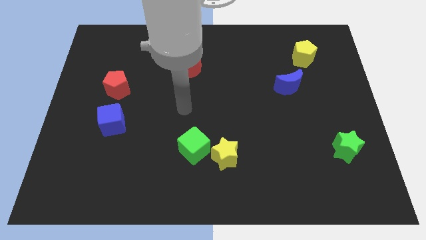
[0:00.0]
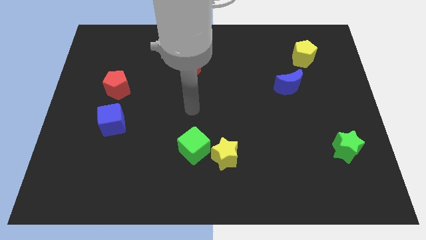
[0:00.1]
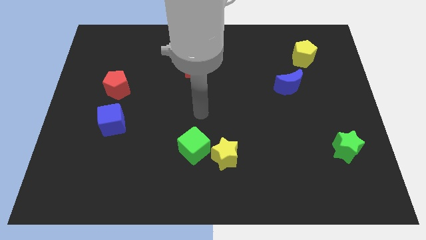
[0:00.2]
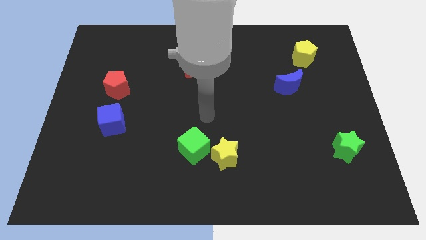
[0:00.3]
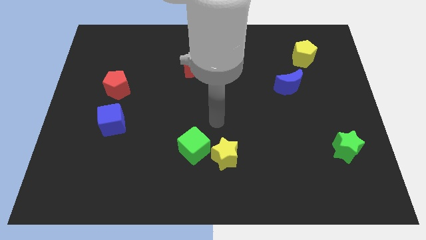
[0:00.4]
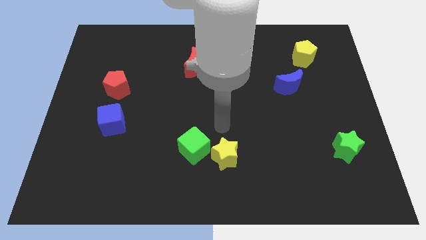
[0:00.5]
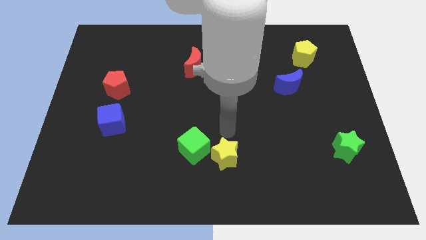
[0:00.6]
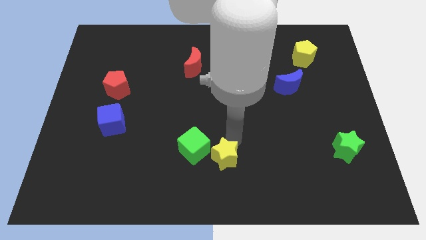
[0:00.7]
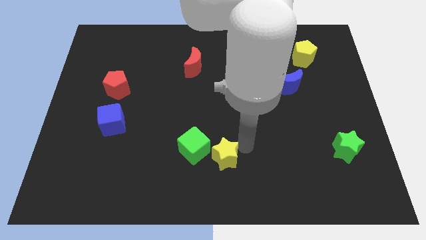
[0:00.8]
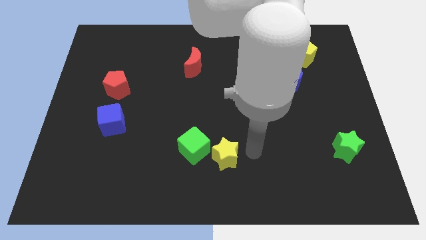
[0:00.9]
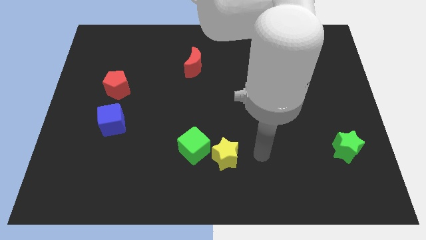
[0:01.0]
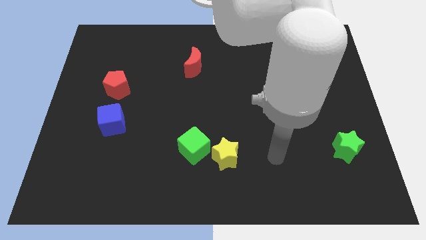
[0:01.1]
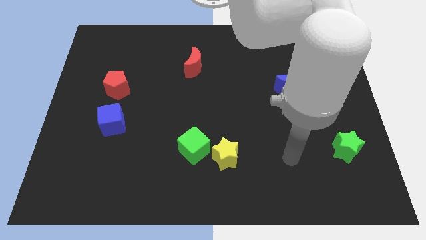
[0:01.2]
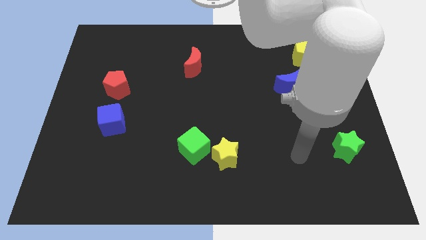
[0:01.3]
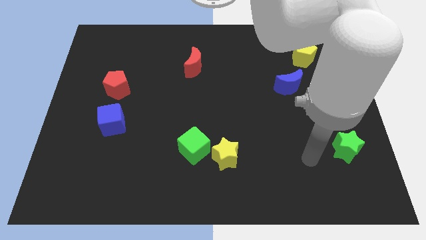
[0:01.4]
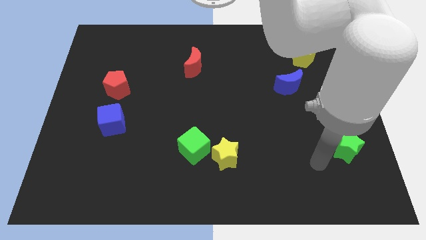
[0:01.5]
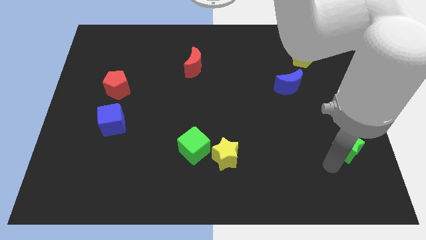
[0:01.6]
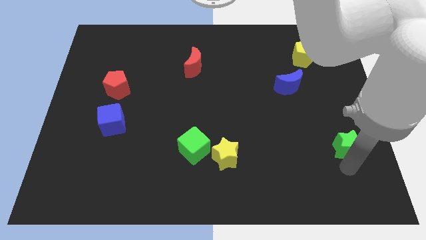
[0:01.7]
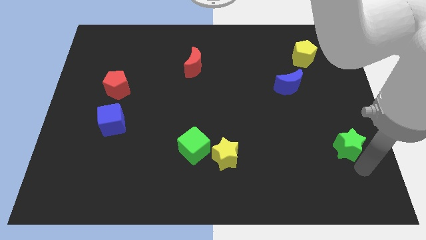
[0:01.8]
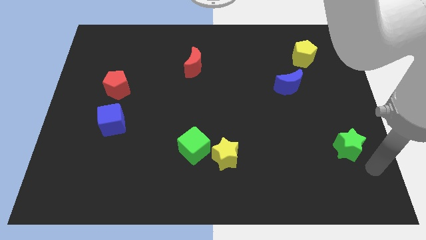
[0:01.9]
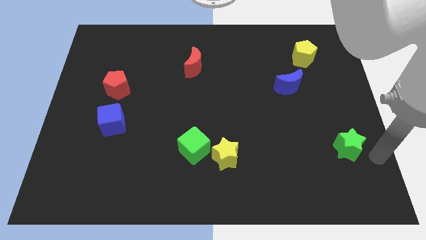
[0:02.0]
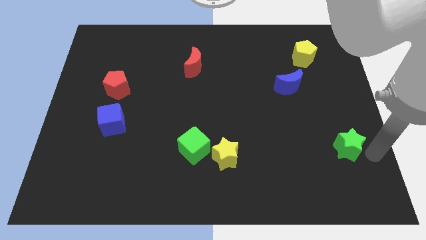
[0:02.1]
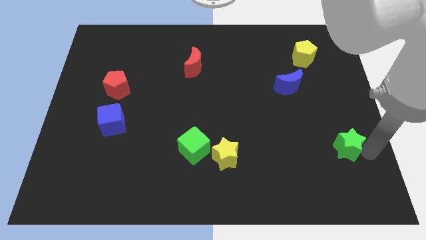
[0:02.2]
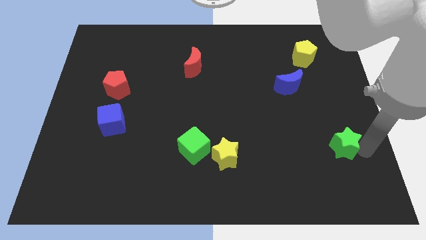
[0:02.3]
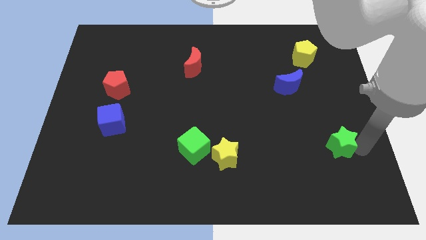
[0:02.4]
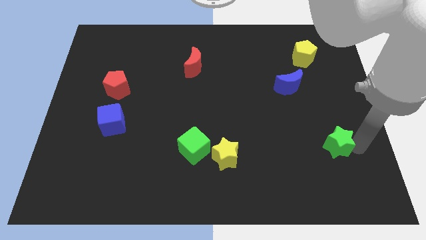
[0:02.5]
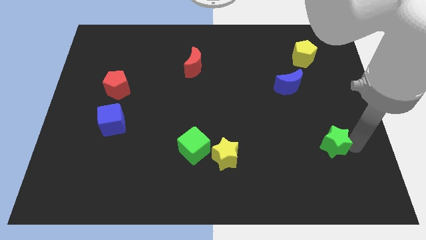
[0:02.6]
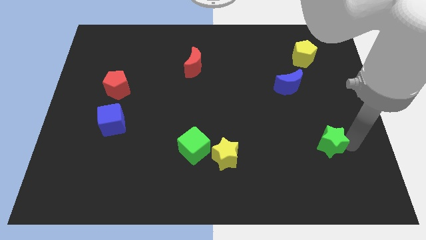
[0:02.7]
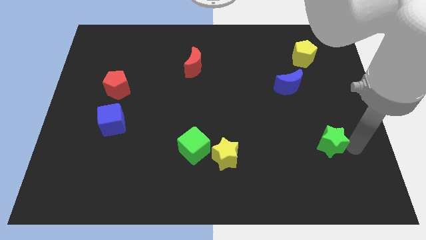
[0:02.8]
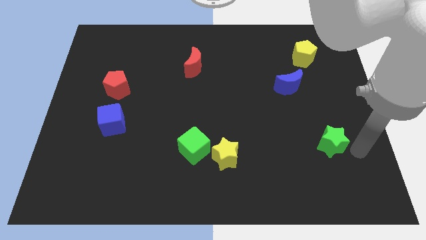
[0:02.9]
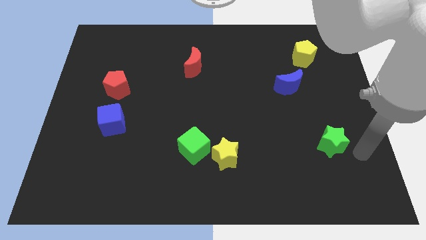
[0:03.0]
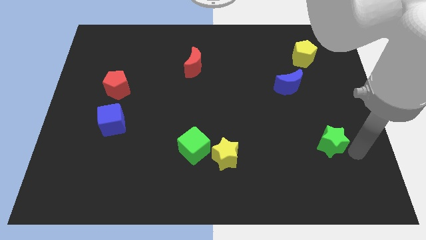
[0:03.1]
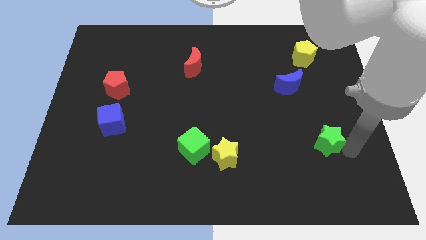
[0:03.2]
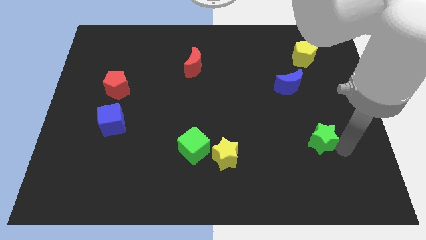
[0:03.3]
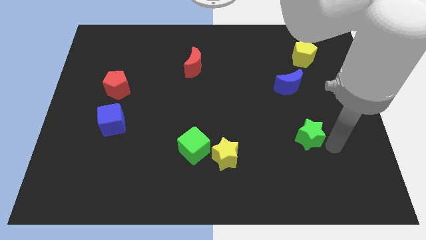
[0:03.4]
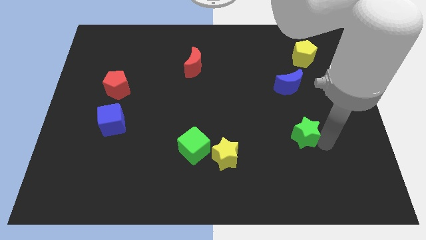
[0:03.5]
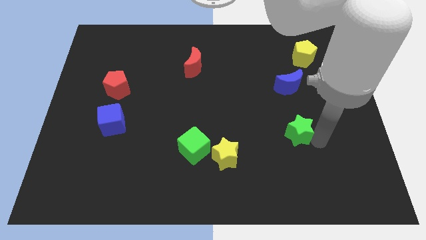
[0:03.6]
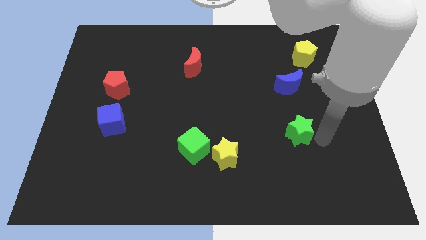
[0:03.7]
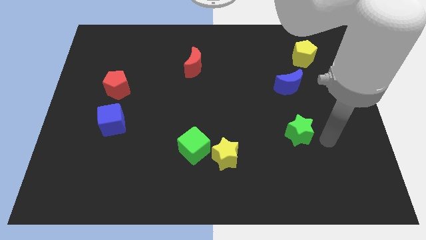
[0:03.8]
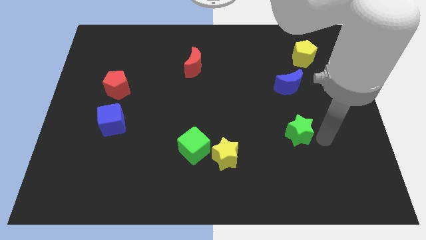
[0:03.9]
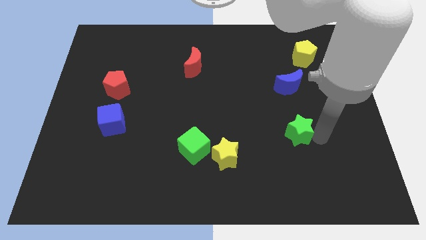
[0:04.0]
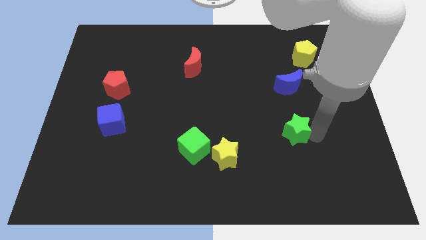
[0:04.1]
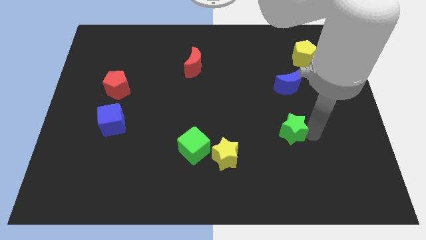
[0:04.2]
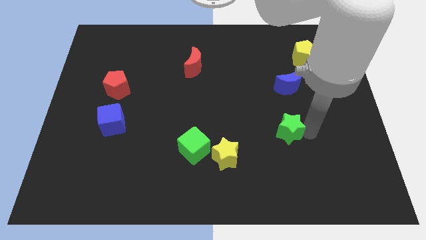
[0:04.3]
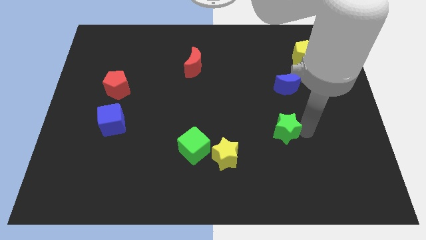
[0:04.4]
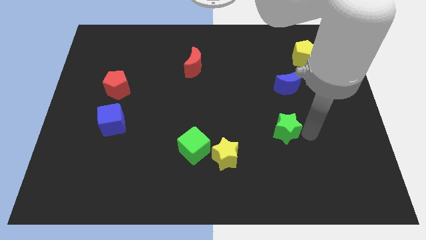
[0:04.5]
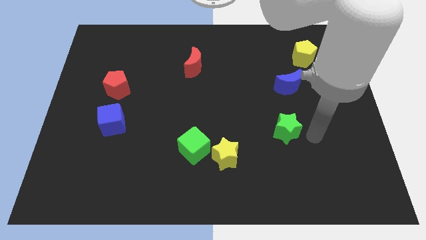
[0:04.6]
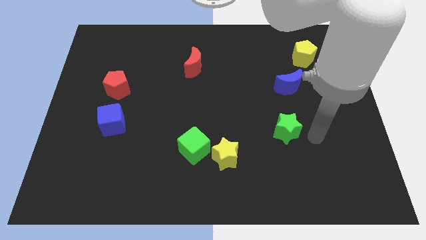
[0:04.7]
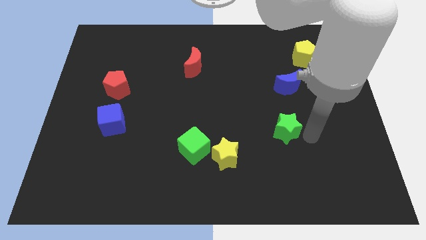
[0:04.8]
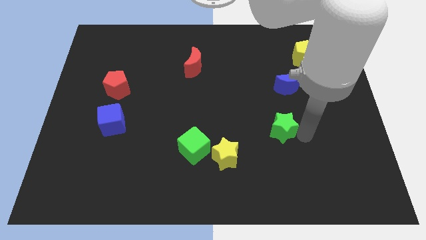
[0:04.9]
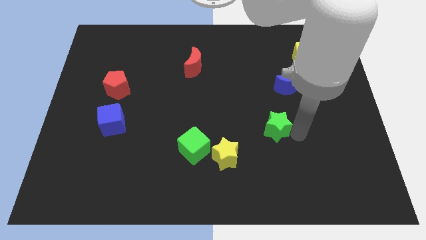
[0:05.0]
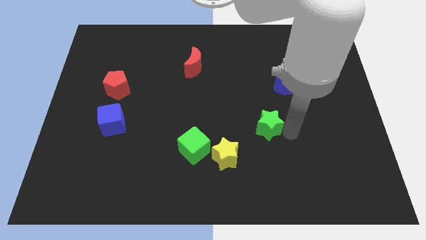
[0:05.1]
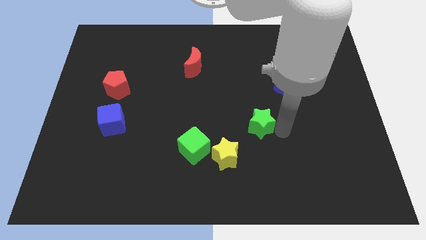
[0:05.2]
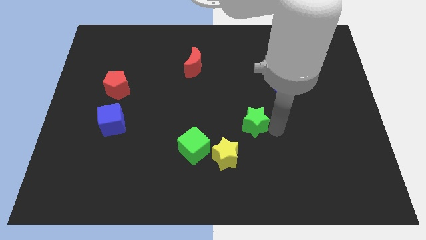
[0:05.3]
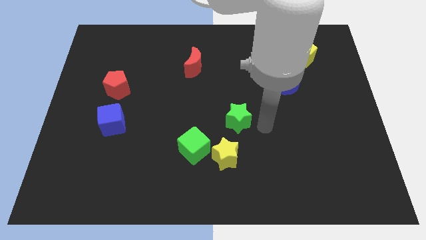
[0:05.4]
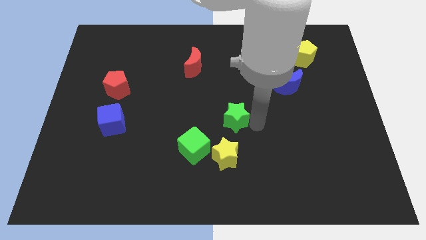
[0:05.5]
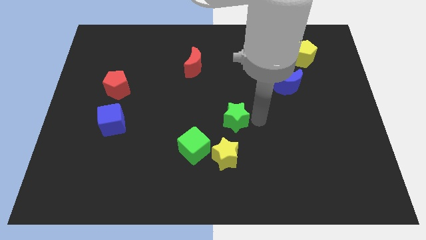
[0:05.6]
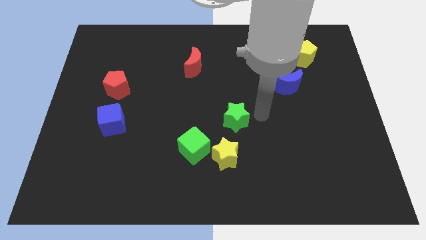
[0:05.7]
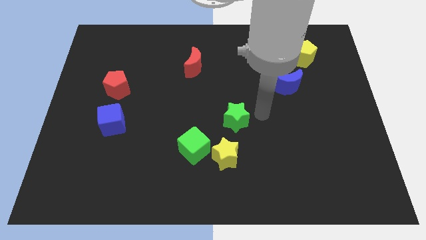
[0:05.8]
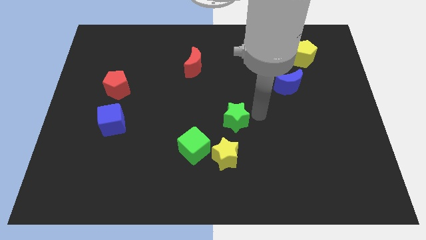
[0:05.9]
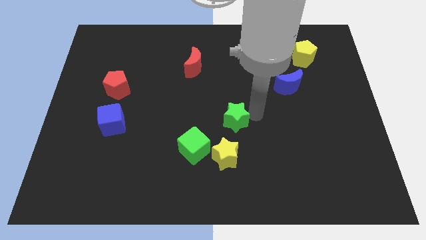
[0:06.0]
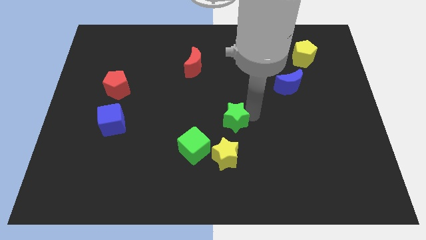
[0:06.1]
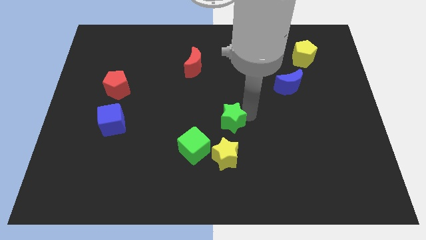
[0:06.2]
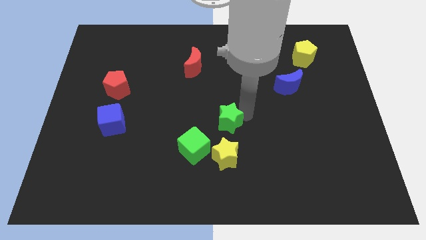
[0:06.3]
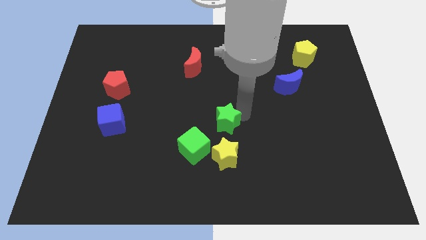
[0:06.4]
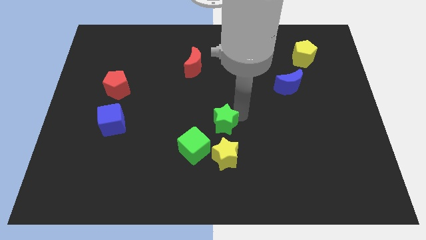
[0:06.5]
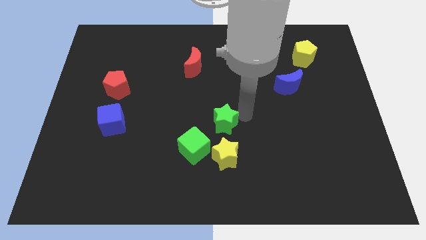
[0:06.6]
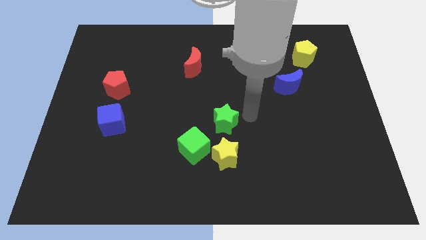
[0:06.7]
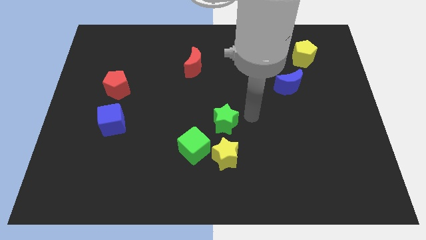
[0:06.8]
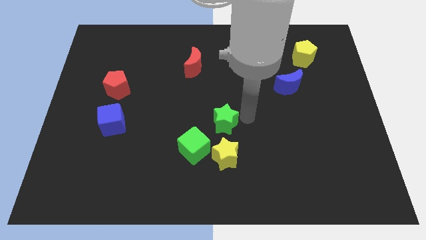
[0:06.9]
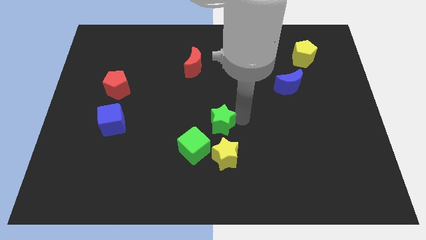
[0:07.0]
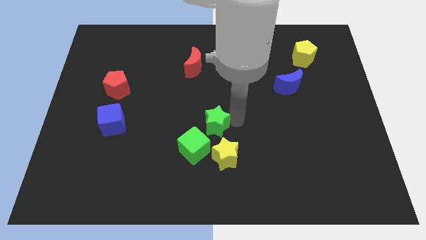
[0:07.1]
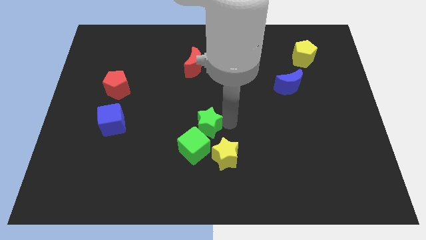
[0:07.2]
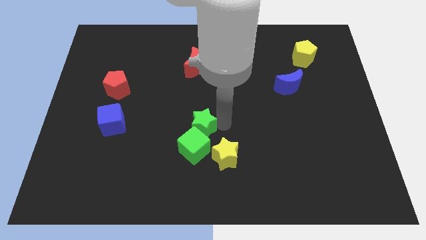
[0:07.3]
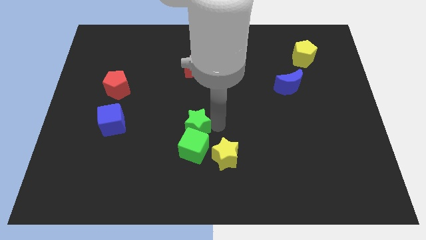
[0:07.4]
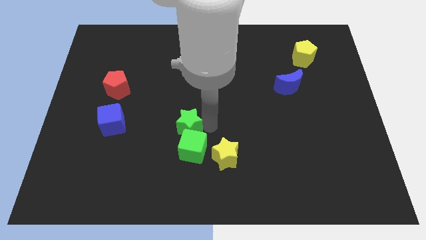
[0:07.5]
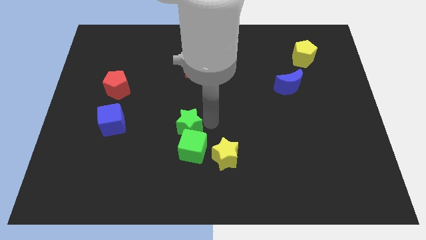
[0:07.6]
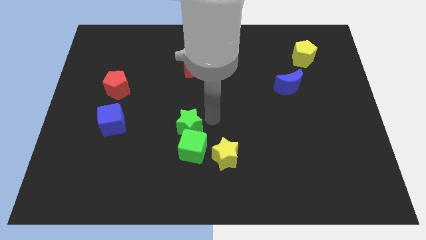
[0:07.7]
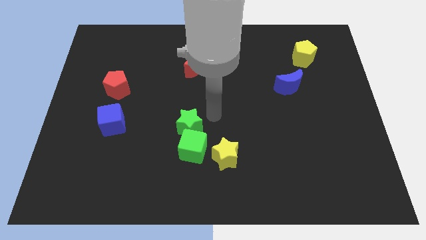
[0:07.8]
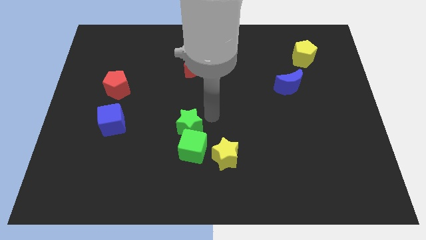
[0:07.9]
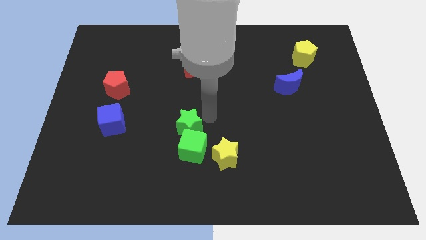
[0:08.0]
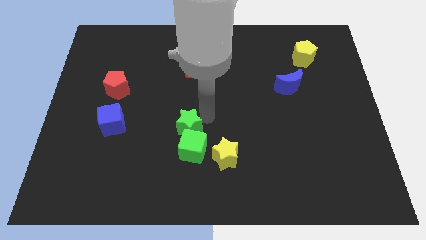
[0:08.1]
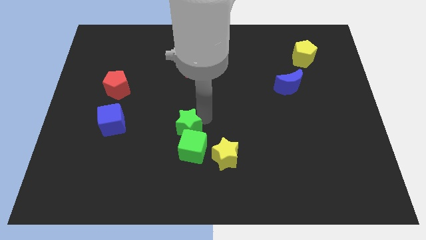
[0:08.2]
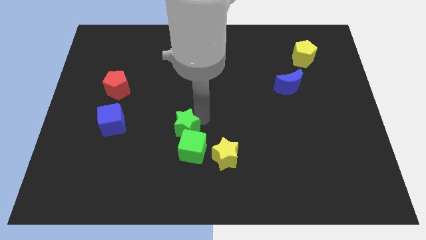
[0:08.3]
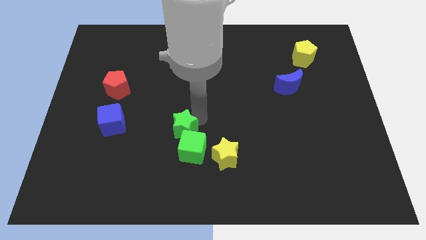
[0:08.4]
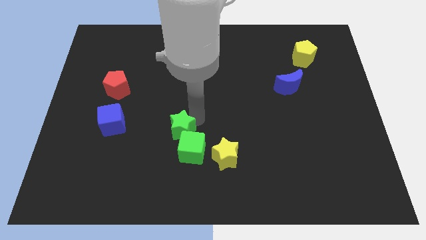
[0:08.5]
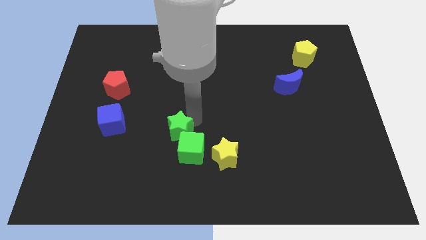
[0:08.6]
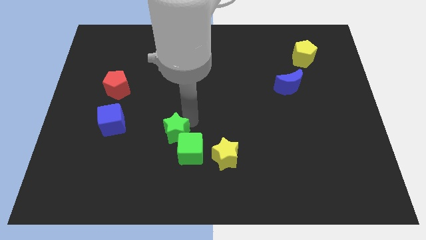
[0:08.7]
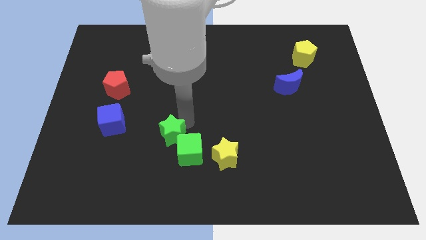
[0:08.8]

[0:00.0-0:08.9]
put the green star just left of the green cube
